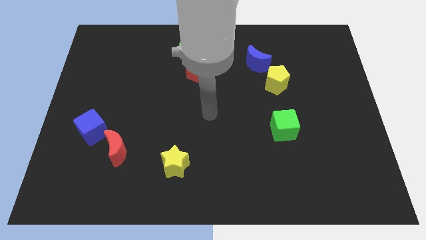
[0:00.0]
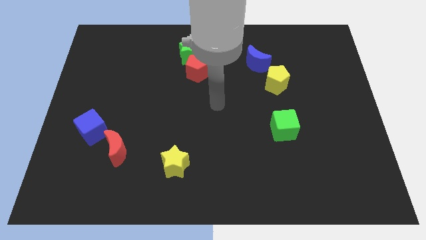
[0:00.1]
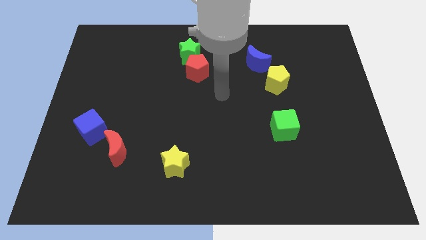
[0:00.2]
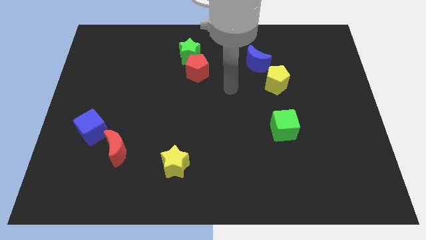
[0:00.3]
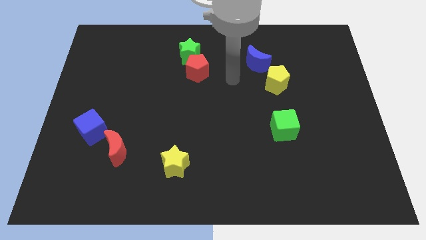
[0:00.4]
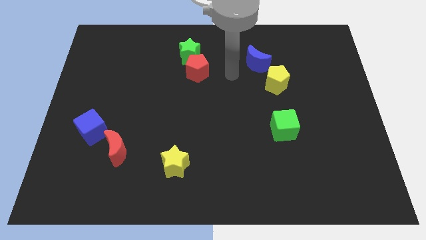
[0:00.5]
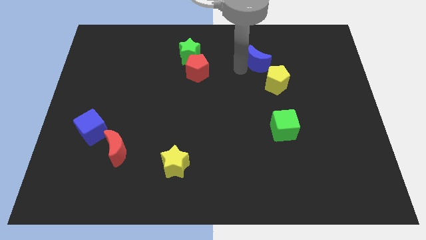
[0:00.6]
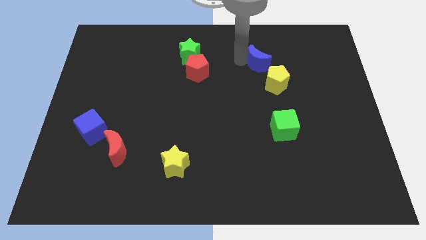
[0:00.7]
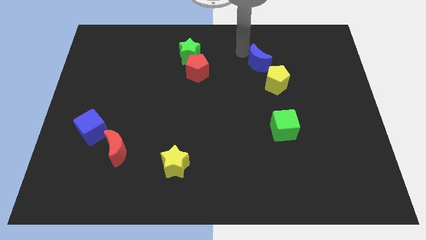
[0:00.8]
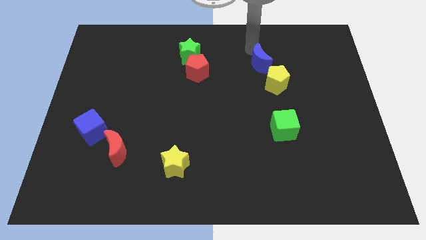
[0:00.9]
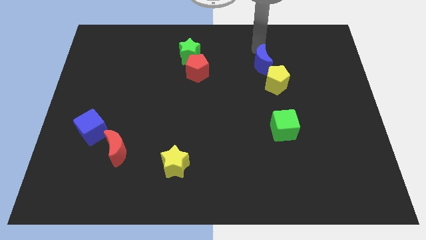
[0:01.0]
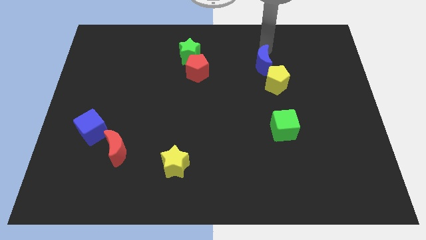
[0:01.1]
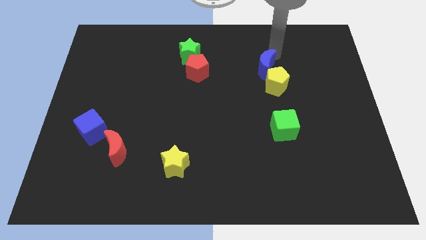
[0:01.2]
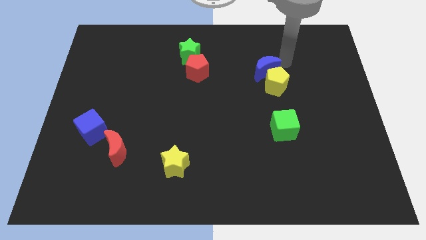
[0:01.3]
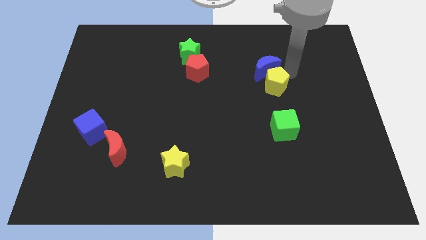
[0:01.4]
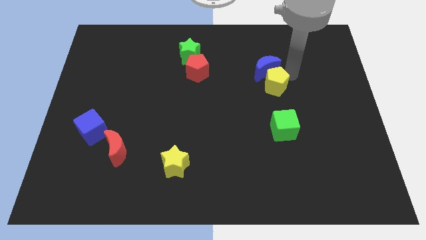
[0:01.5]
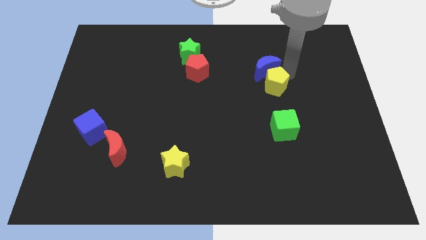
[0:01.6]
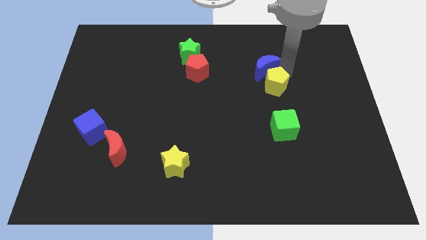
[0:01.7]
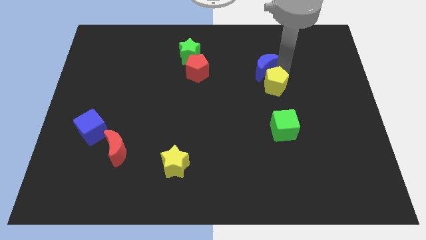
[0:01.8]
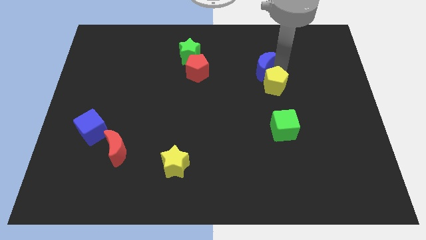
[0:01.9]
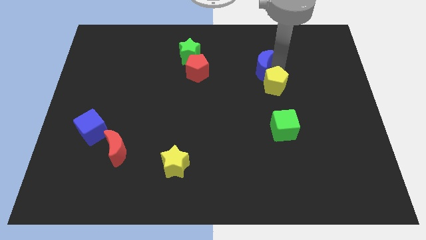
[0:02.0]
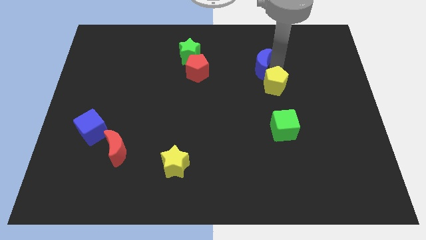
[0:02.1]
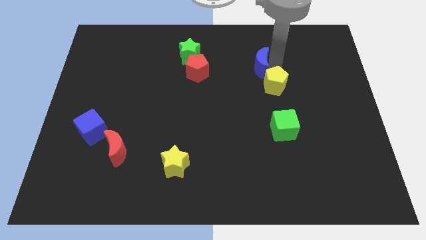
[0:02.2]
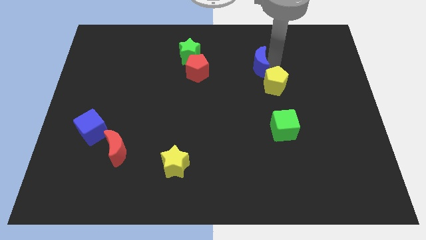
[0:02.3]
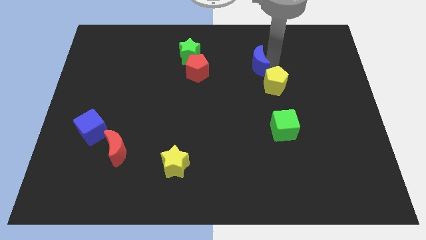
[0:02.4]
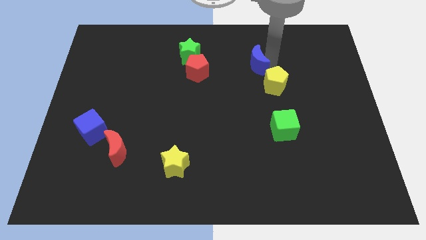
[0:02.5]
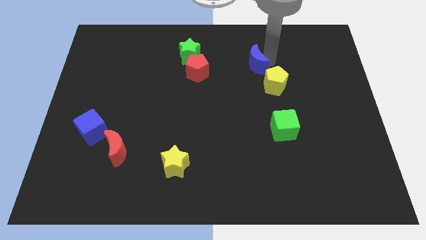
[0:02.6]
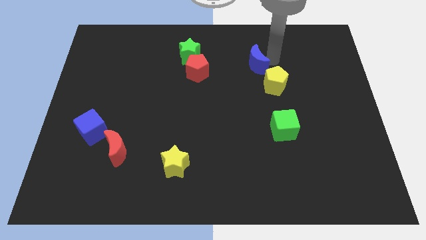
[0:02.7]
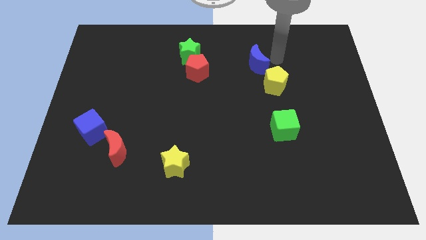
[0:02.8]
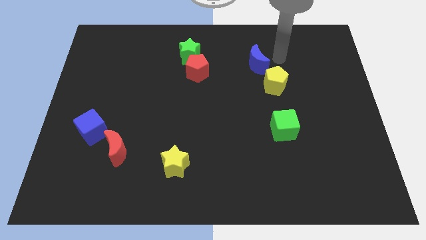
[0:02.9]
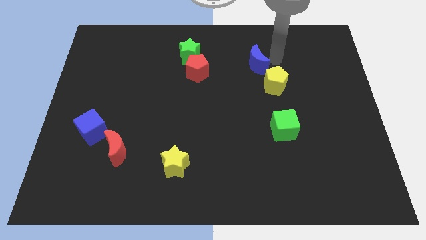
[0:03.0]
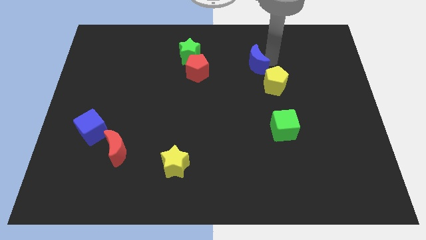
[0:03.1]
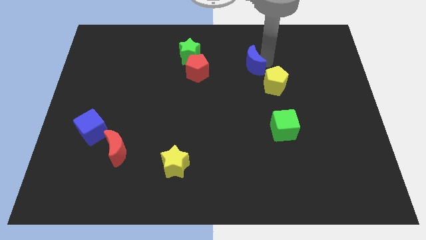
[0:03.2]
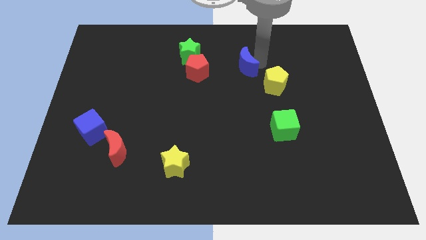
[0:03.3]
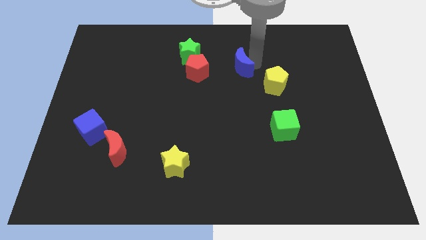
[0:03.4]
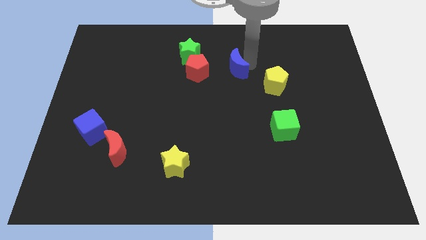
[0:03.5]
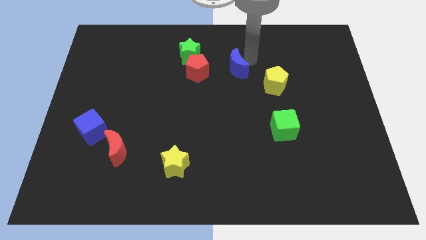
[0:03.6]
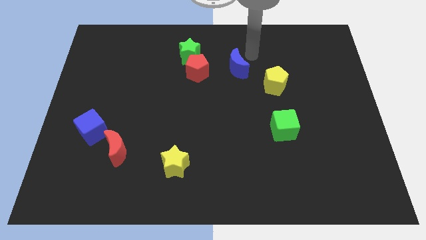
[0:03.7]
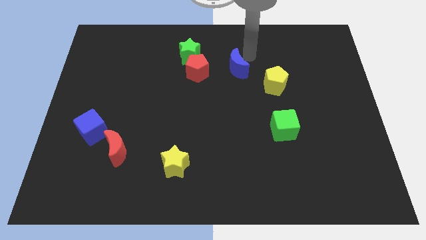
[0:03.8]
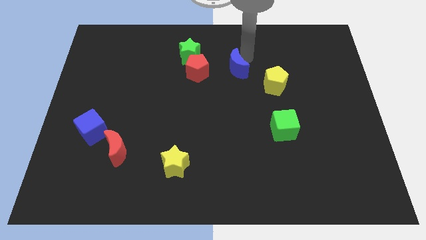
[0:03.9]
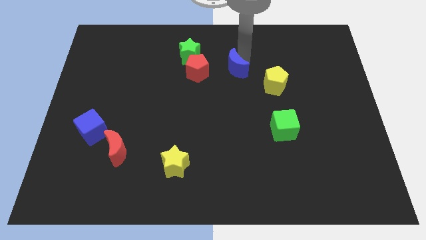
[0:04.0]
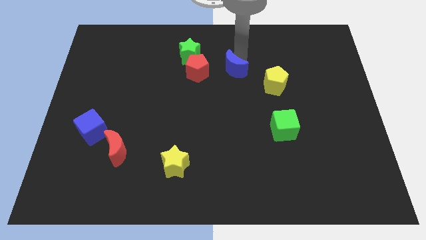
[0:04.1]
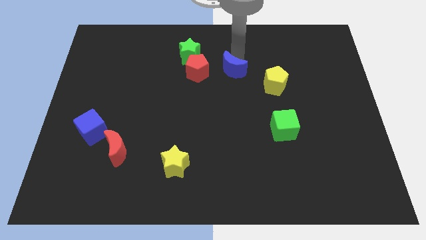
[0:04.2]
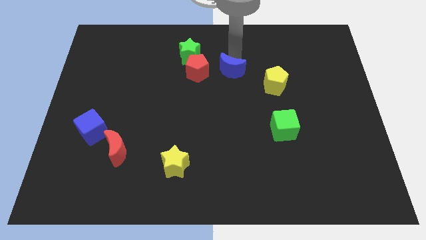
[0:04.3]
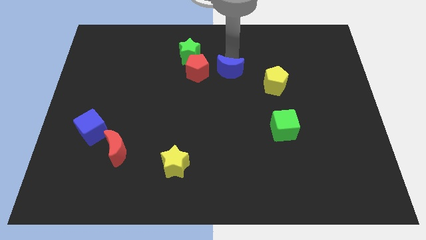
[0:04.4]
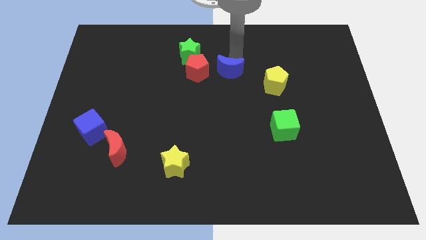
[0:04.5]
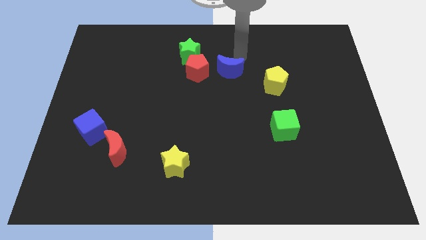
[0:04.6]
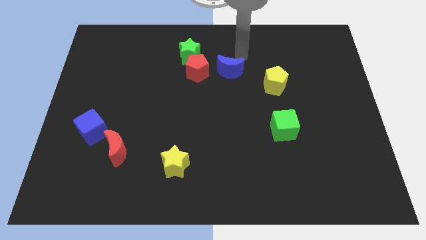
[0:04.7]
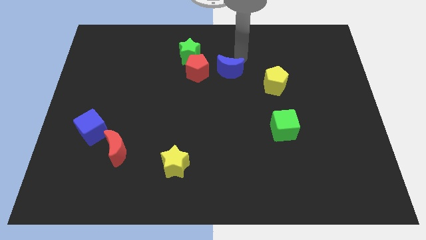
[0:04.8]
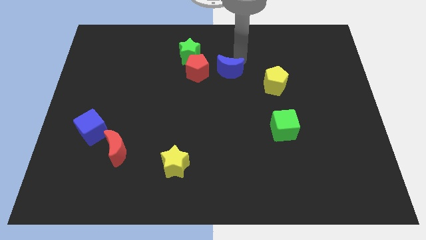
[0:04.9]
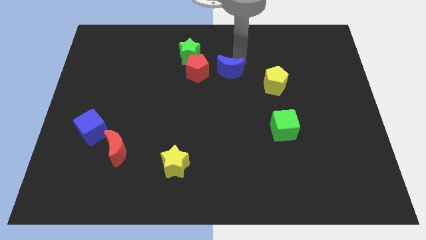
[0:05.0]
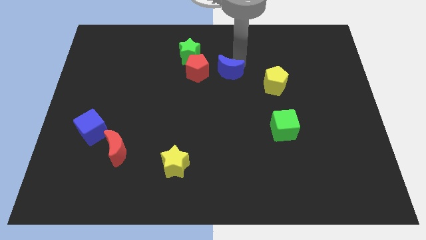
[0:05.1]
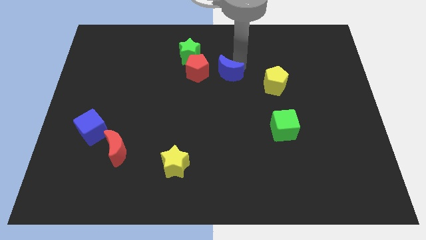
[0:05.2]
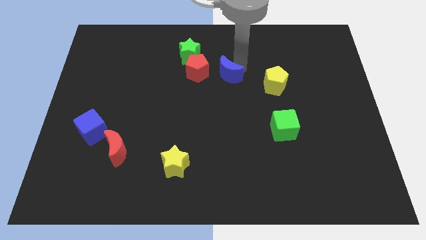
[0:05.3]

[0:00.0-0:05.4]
slide the blue moon diagonally down and to the right of the red pentagon

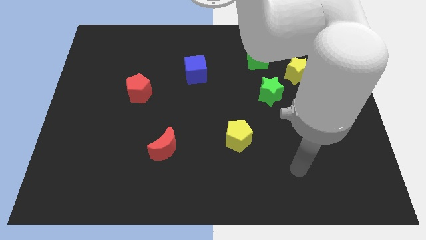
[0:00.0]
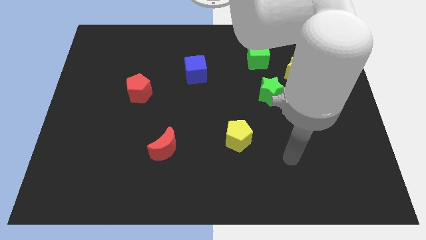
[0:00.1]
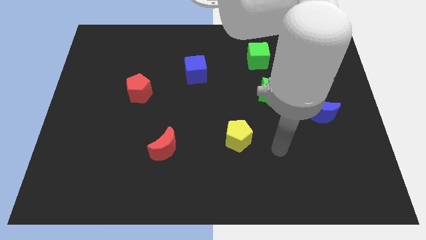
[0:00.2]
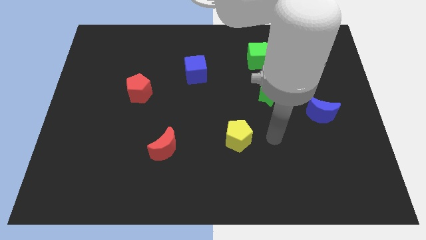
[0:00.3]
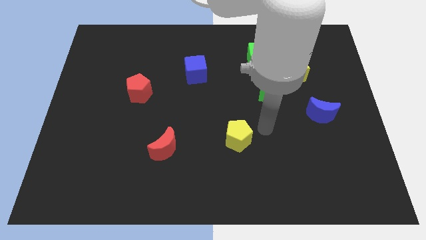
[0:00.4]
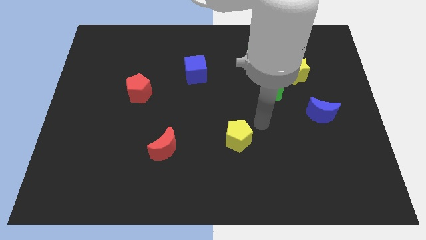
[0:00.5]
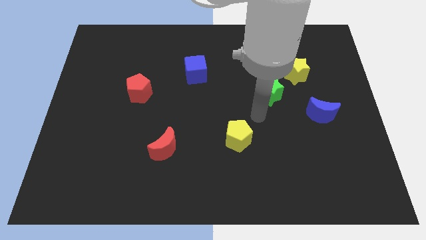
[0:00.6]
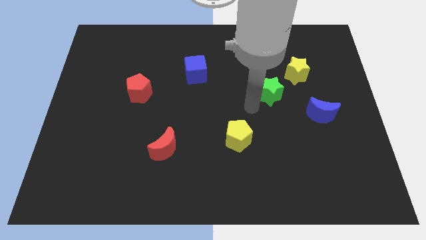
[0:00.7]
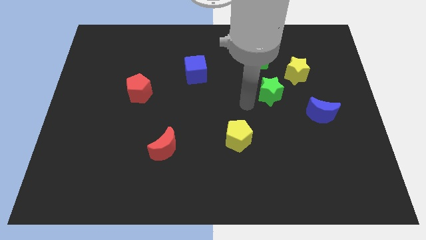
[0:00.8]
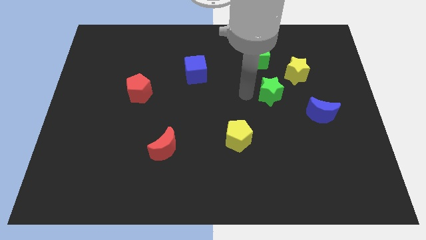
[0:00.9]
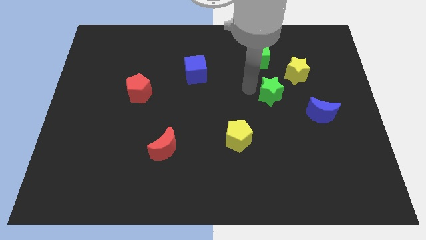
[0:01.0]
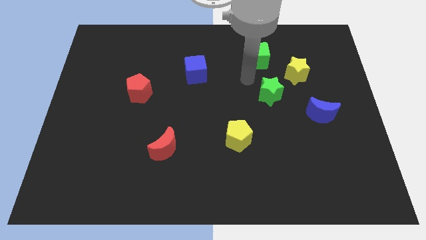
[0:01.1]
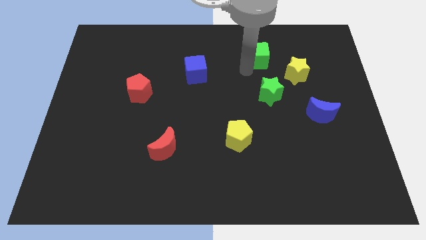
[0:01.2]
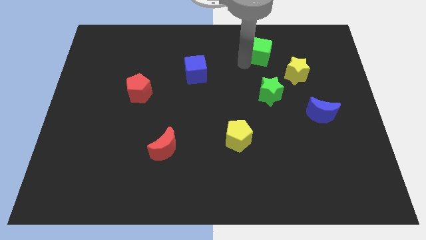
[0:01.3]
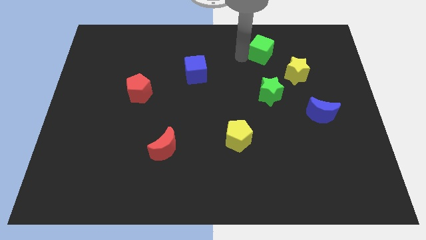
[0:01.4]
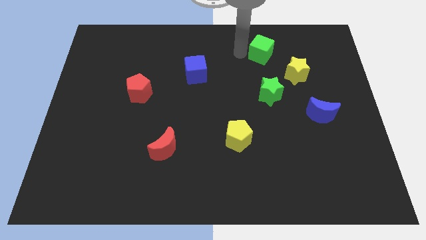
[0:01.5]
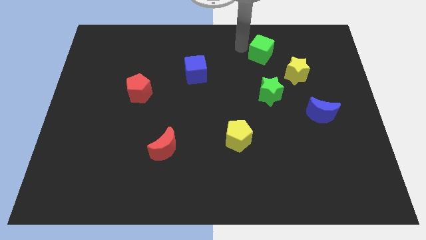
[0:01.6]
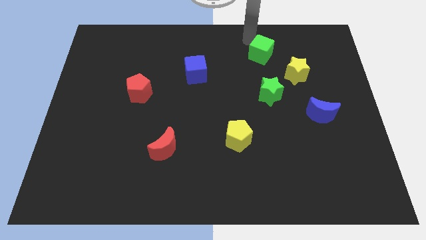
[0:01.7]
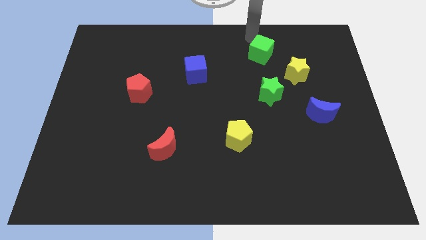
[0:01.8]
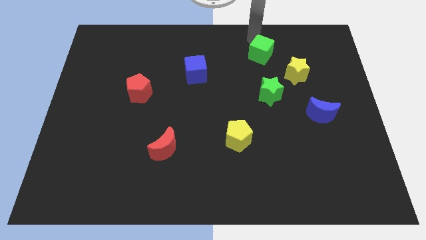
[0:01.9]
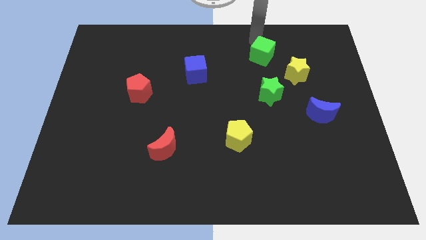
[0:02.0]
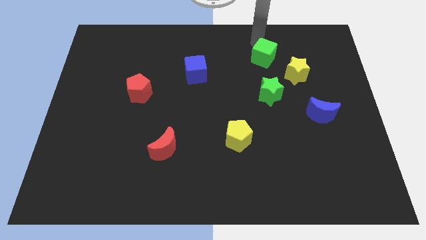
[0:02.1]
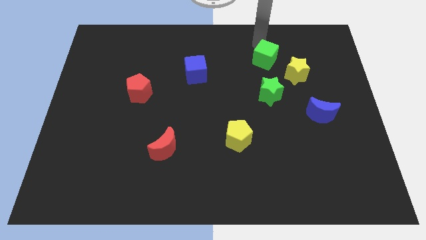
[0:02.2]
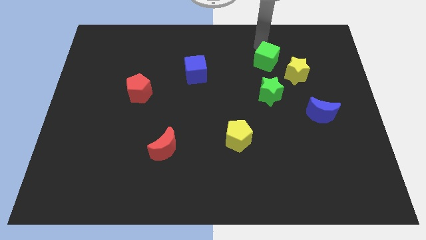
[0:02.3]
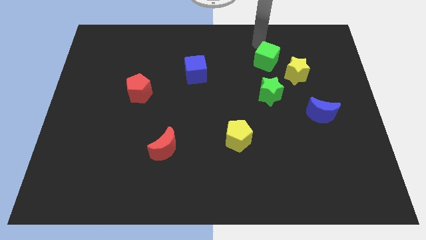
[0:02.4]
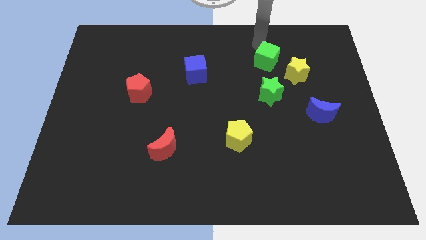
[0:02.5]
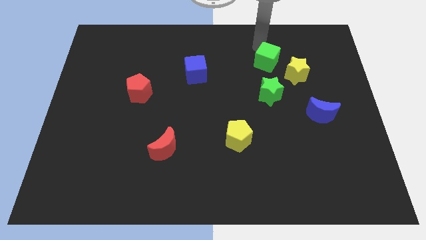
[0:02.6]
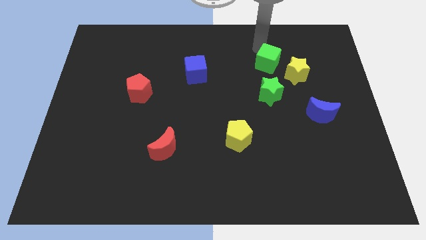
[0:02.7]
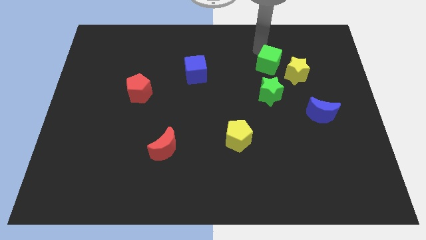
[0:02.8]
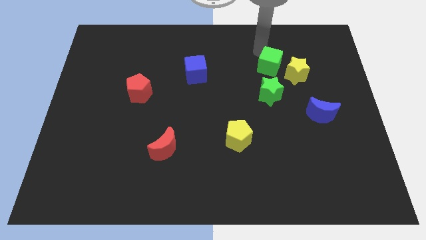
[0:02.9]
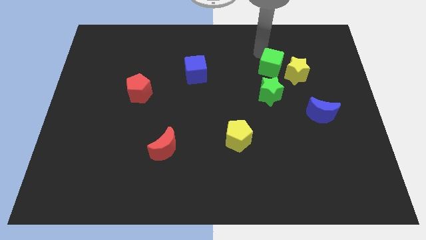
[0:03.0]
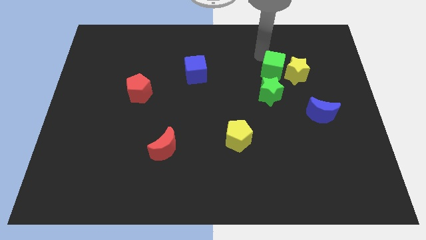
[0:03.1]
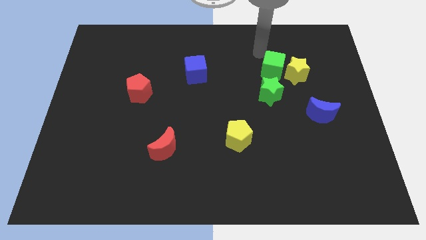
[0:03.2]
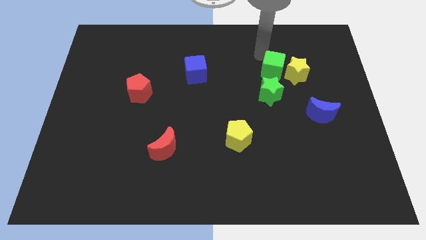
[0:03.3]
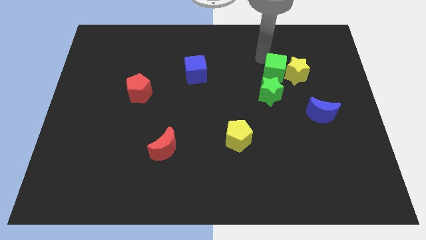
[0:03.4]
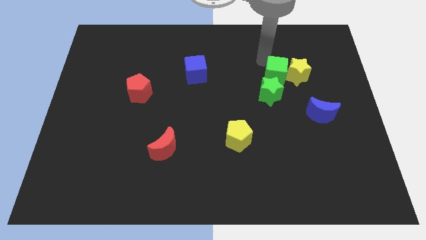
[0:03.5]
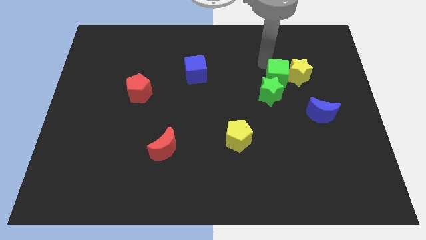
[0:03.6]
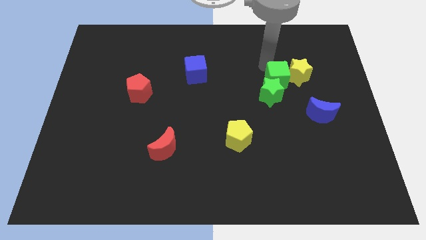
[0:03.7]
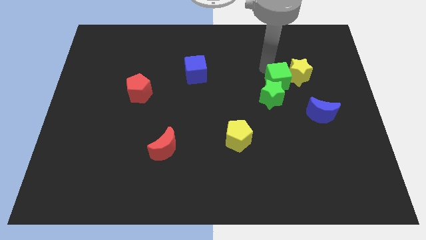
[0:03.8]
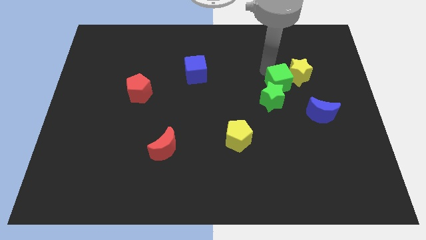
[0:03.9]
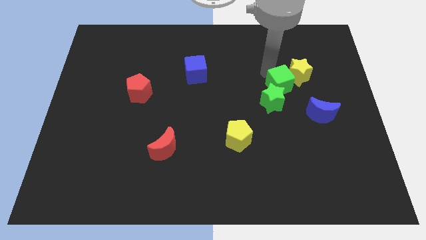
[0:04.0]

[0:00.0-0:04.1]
put the green cube diagonally up and to the left of the blue moon
